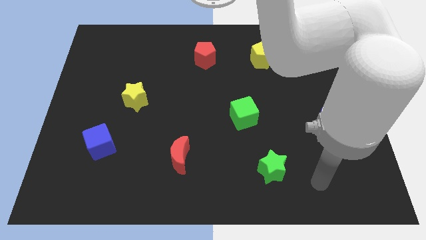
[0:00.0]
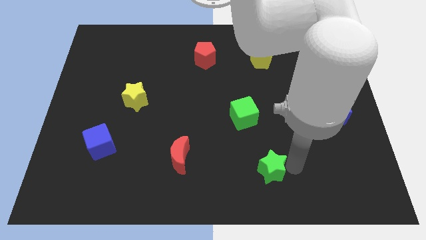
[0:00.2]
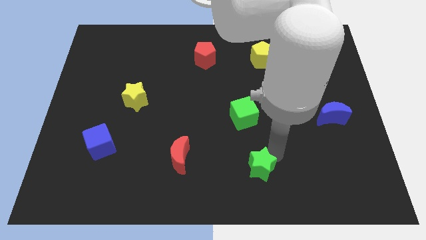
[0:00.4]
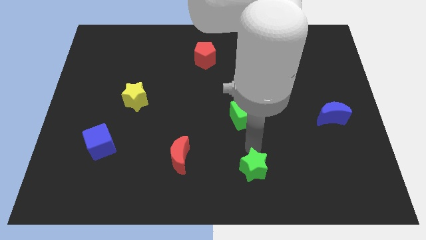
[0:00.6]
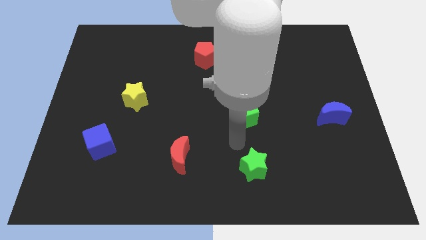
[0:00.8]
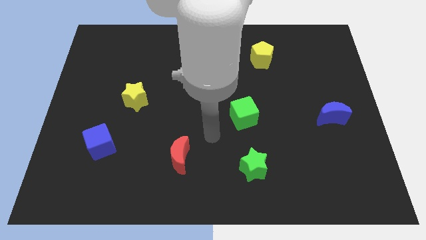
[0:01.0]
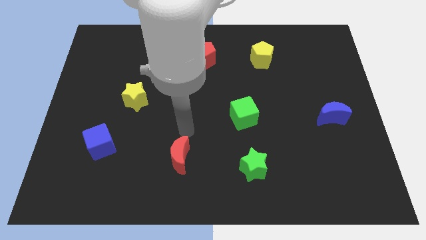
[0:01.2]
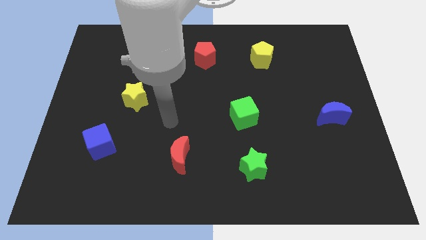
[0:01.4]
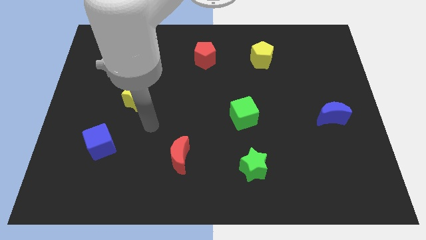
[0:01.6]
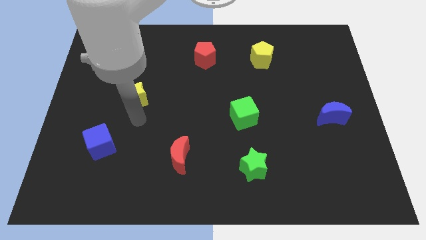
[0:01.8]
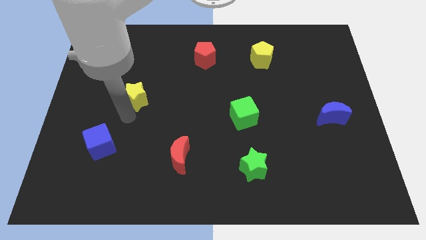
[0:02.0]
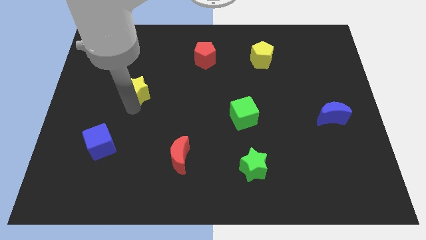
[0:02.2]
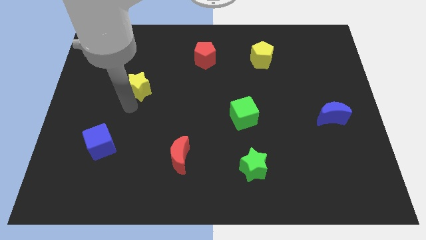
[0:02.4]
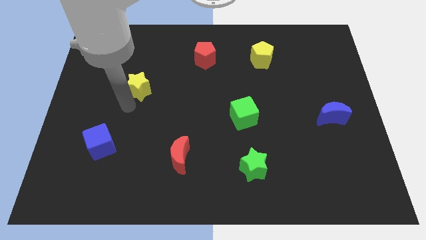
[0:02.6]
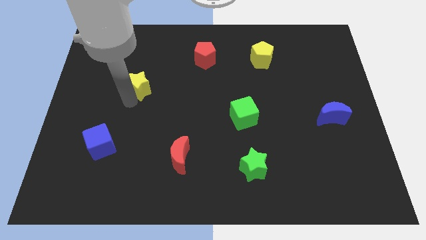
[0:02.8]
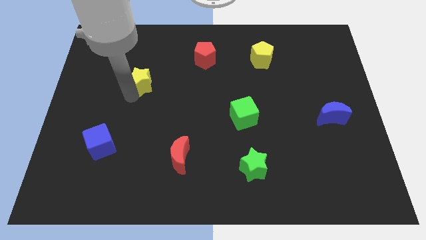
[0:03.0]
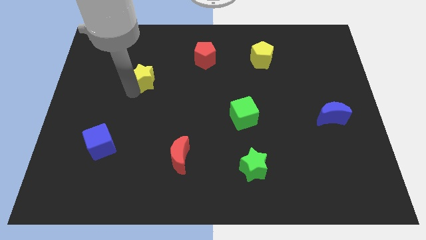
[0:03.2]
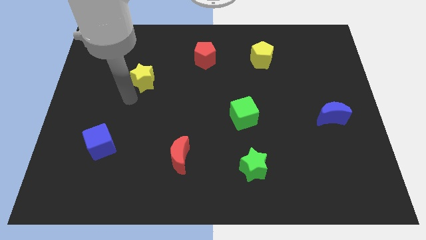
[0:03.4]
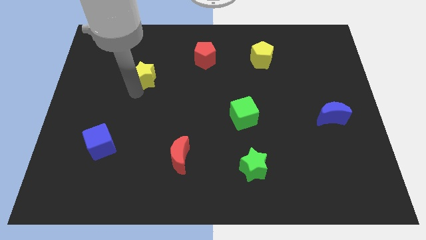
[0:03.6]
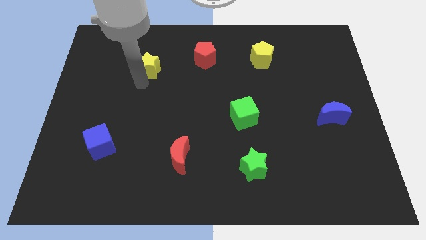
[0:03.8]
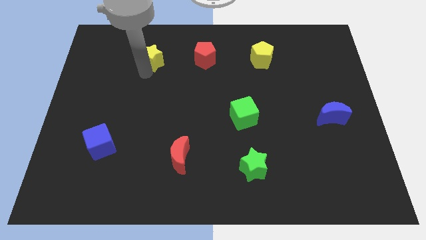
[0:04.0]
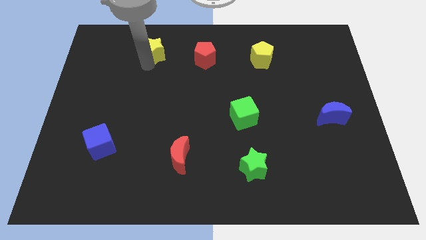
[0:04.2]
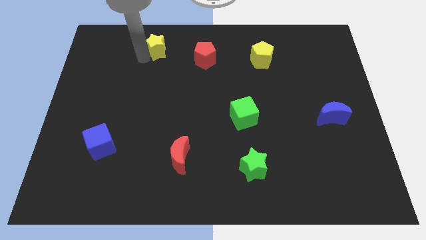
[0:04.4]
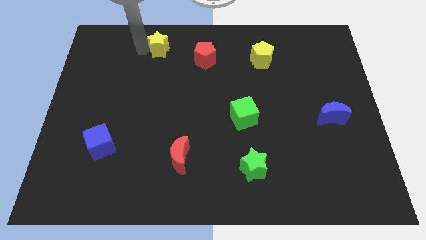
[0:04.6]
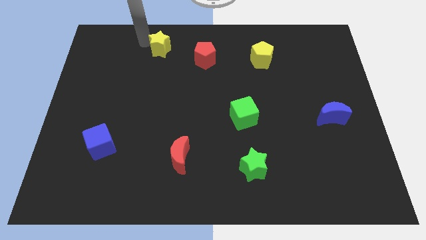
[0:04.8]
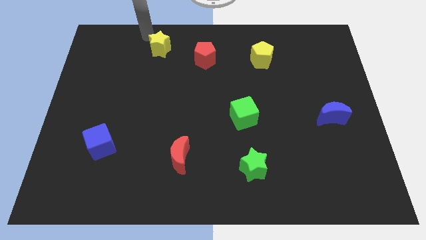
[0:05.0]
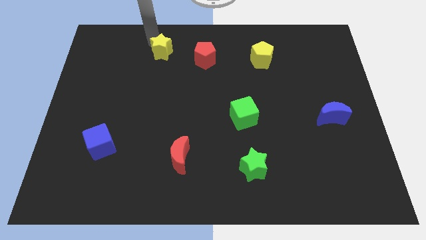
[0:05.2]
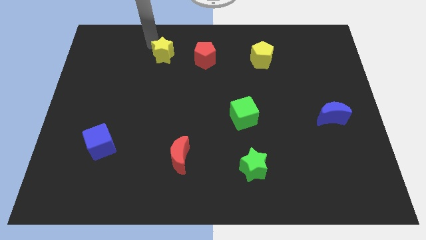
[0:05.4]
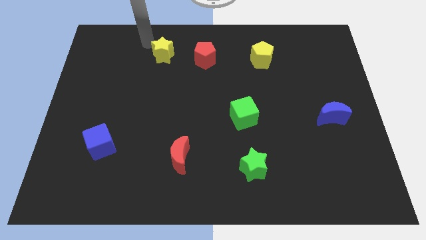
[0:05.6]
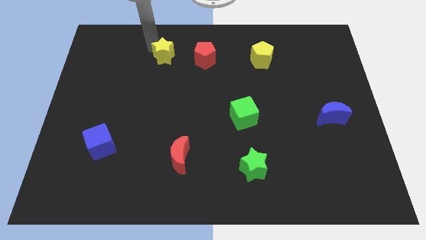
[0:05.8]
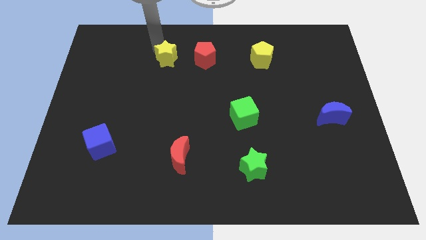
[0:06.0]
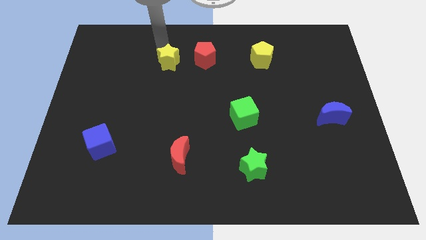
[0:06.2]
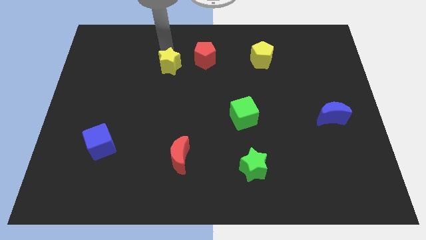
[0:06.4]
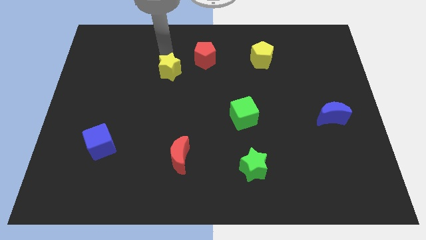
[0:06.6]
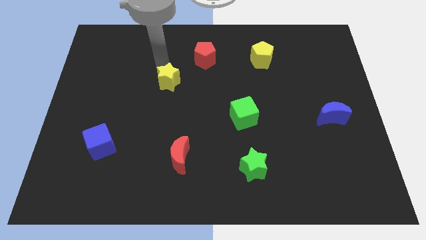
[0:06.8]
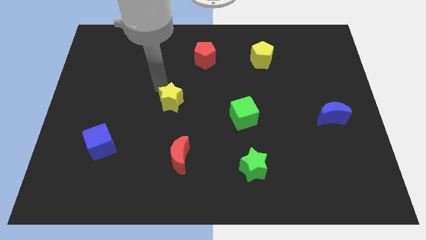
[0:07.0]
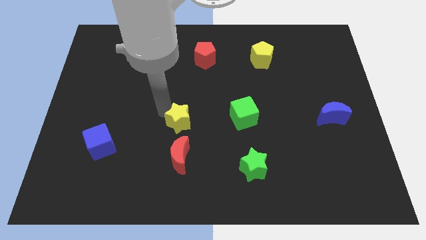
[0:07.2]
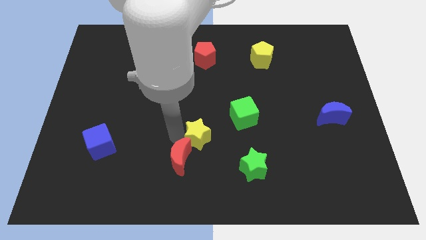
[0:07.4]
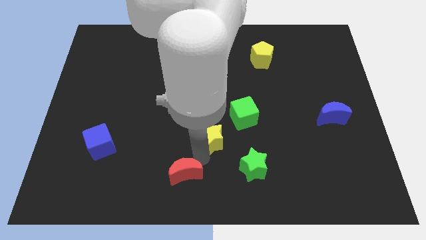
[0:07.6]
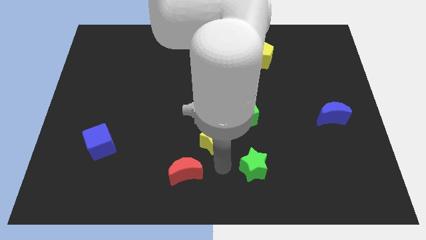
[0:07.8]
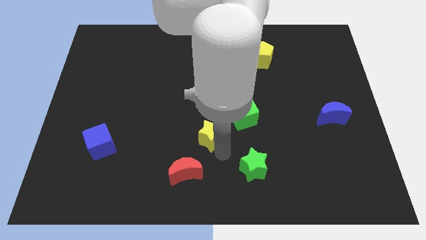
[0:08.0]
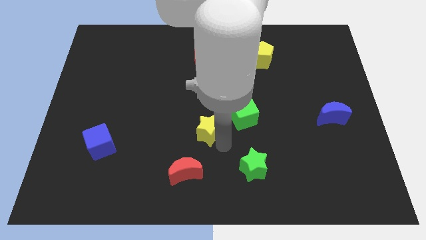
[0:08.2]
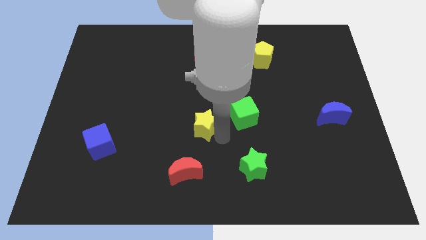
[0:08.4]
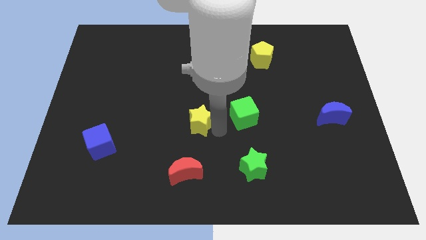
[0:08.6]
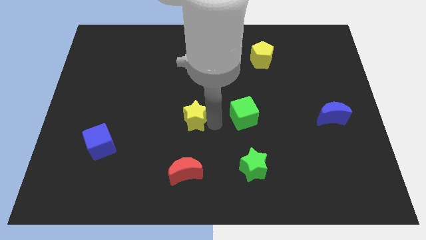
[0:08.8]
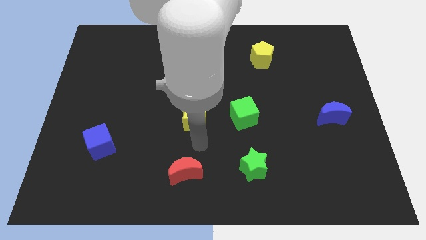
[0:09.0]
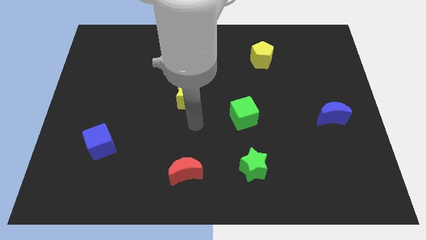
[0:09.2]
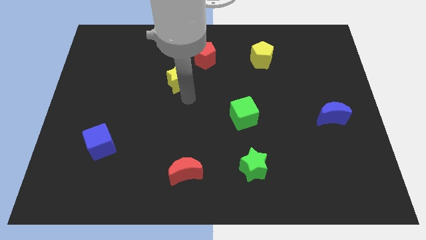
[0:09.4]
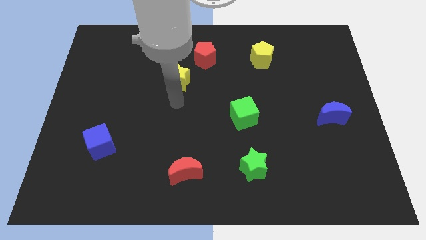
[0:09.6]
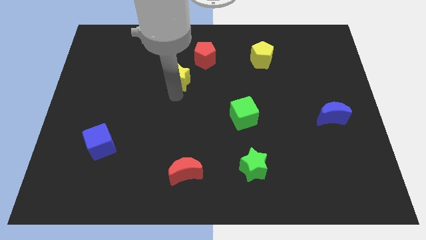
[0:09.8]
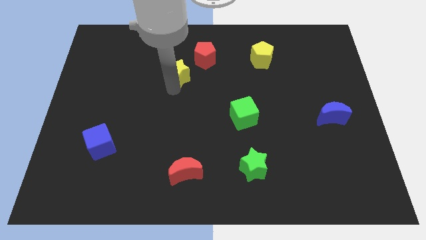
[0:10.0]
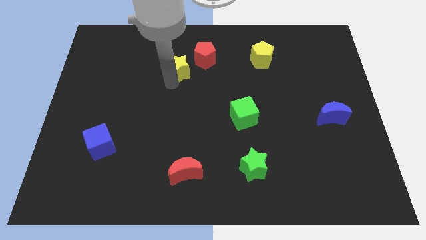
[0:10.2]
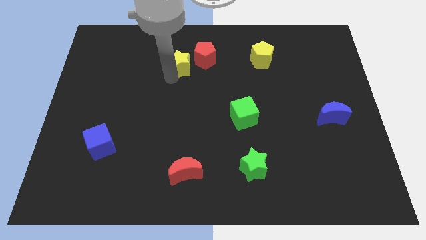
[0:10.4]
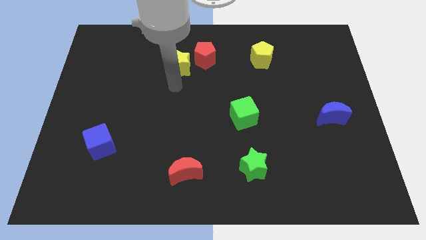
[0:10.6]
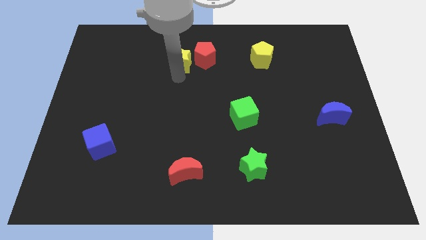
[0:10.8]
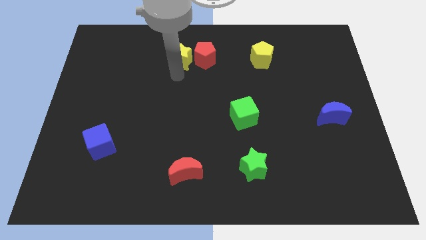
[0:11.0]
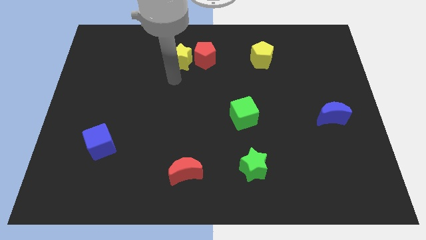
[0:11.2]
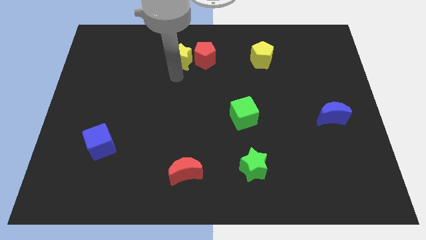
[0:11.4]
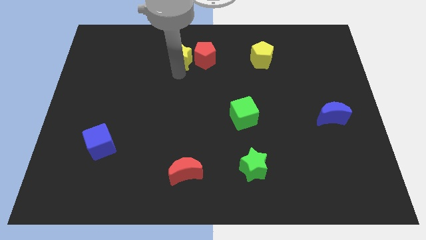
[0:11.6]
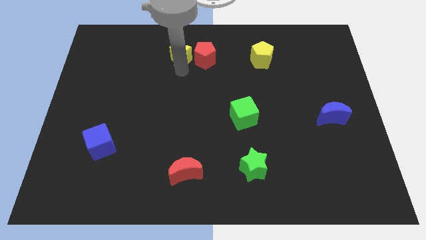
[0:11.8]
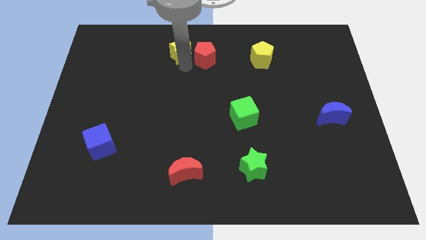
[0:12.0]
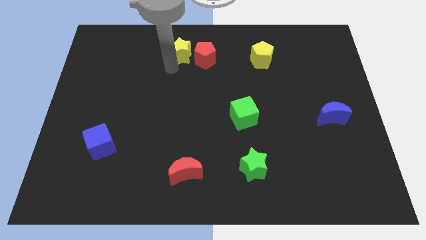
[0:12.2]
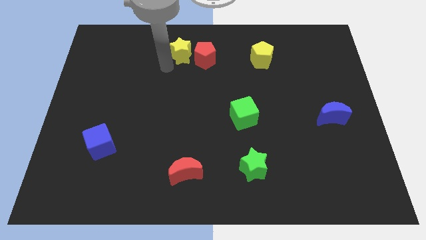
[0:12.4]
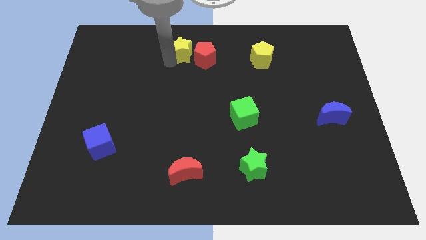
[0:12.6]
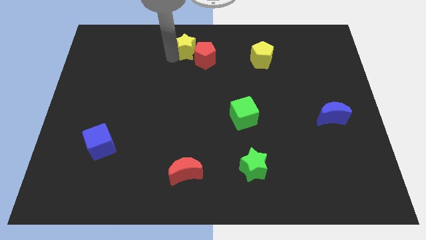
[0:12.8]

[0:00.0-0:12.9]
put the yellow star to the towards your base
